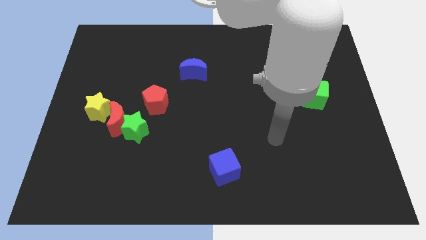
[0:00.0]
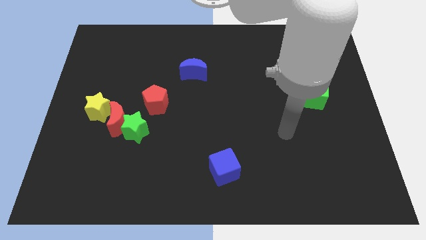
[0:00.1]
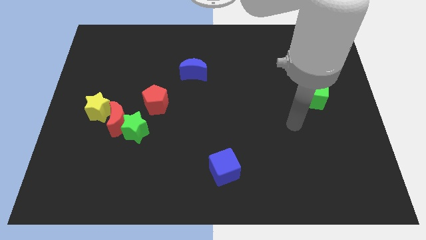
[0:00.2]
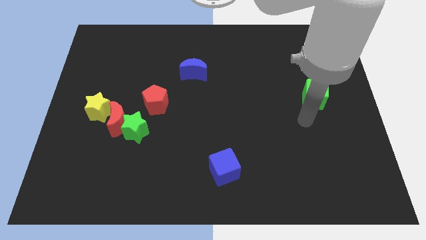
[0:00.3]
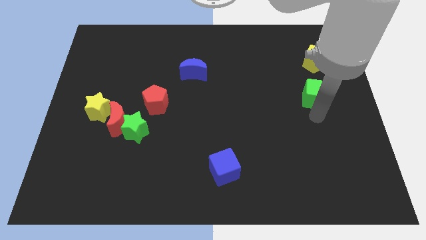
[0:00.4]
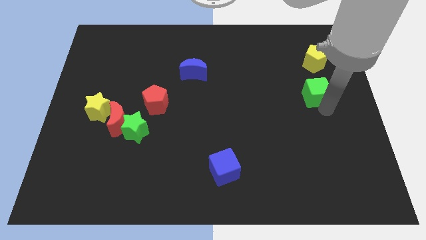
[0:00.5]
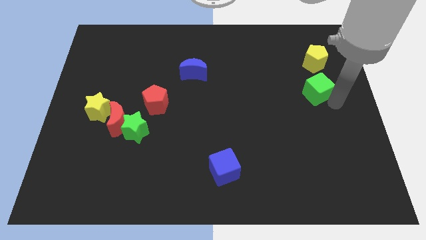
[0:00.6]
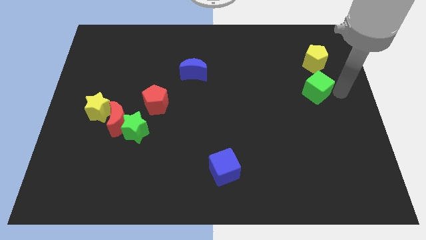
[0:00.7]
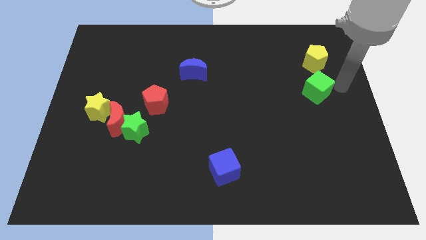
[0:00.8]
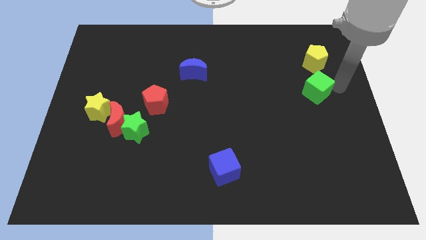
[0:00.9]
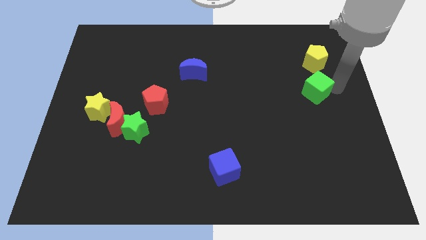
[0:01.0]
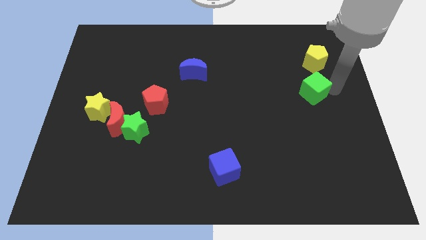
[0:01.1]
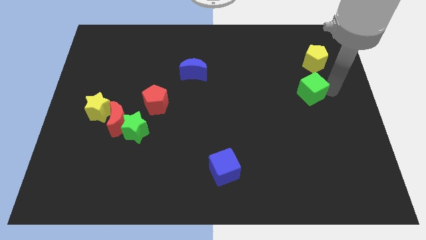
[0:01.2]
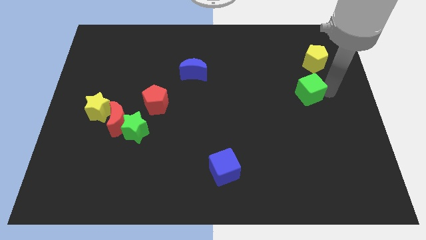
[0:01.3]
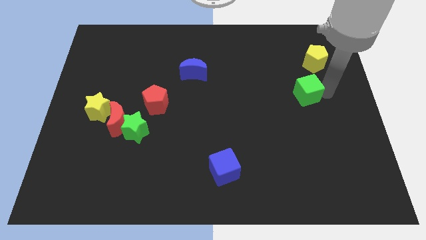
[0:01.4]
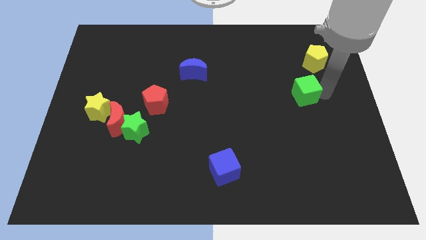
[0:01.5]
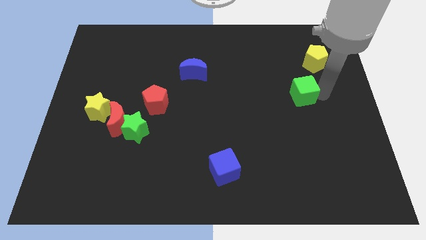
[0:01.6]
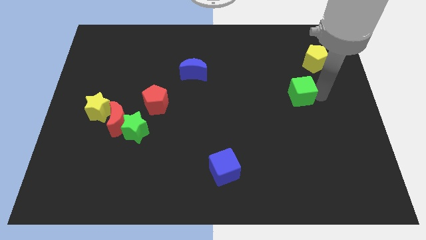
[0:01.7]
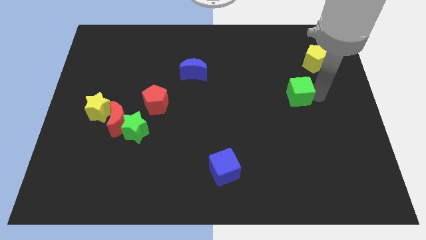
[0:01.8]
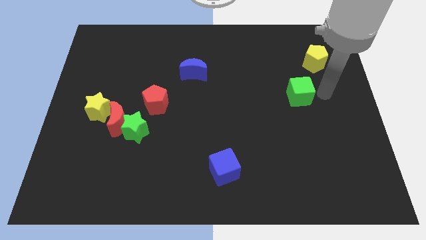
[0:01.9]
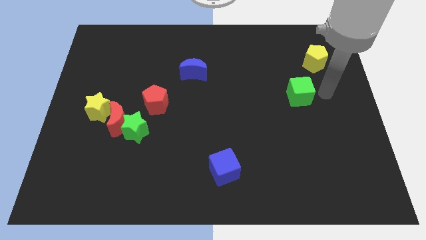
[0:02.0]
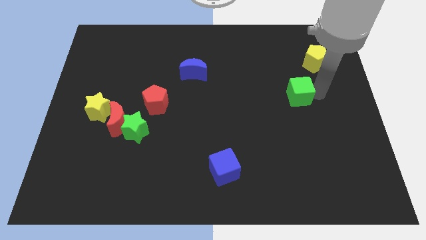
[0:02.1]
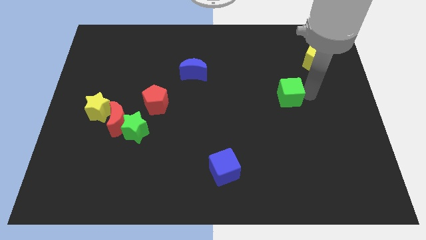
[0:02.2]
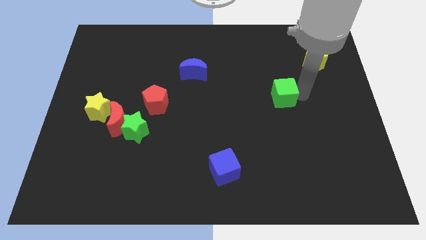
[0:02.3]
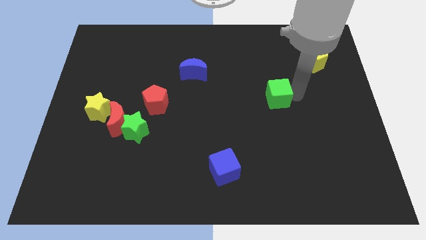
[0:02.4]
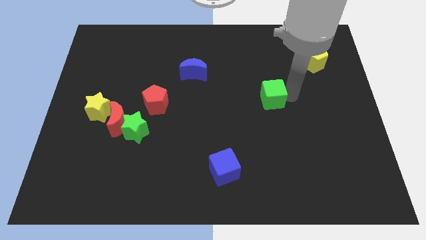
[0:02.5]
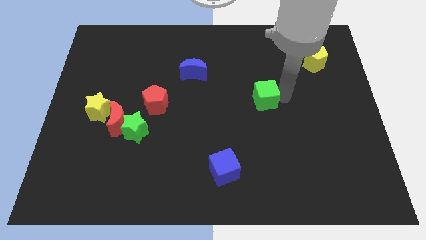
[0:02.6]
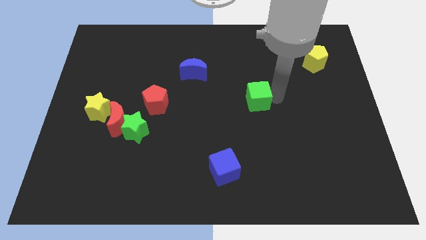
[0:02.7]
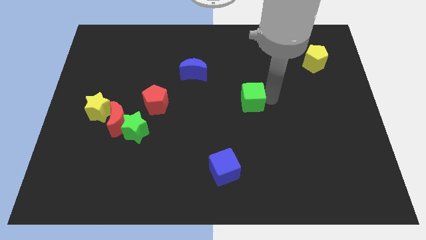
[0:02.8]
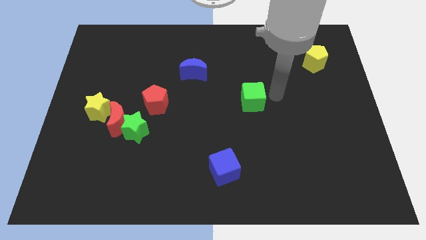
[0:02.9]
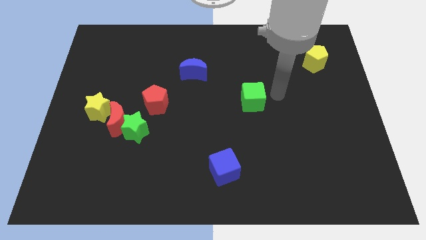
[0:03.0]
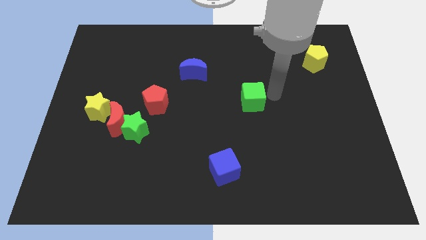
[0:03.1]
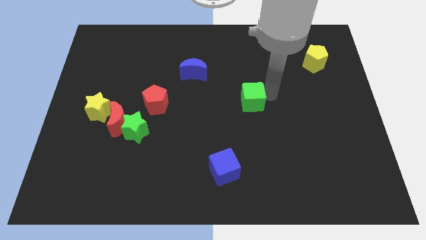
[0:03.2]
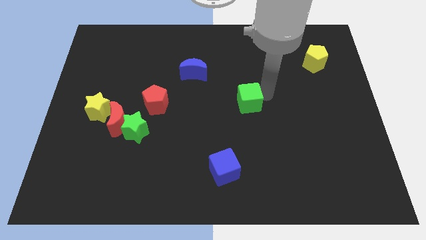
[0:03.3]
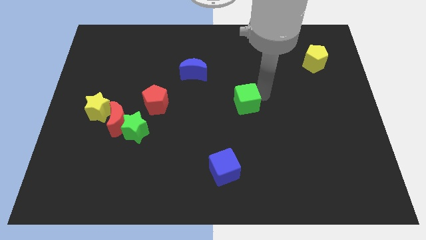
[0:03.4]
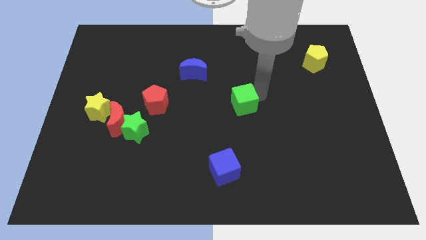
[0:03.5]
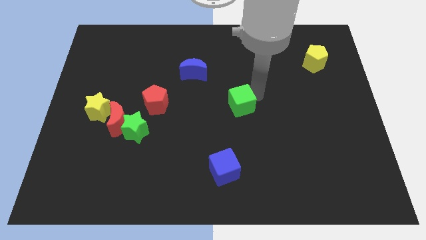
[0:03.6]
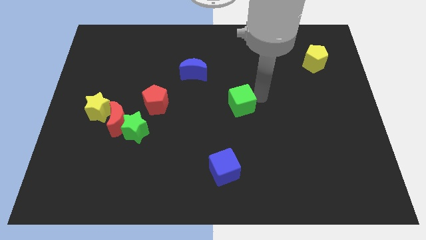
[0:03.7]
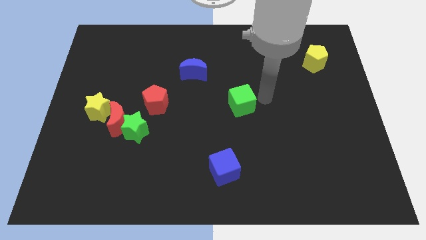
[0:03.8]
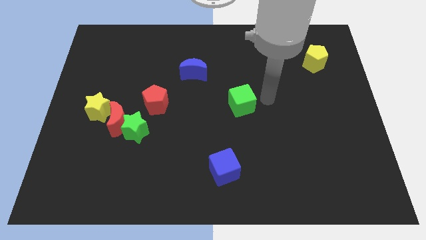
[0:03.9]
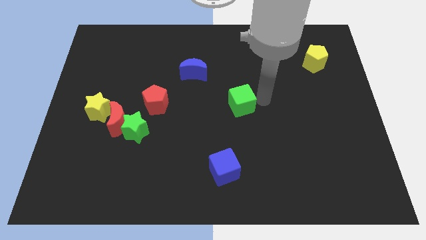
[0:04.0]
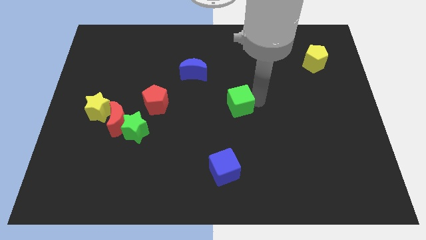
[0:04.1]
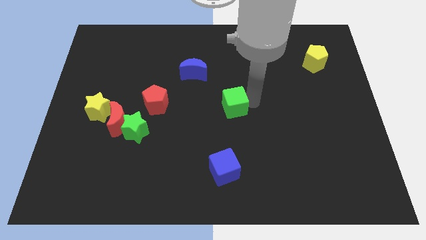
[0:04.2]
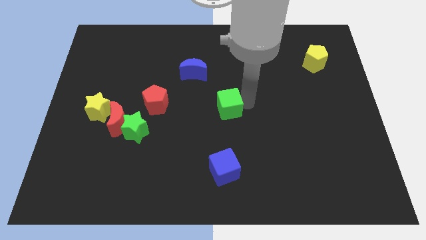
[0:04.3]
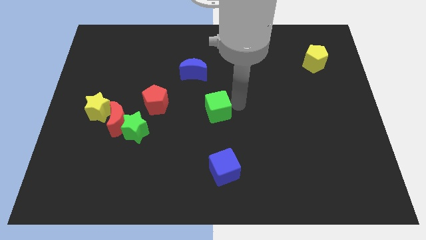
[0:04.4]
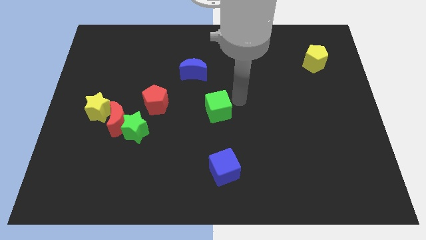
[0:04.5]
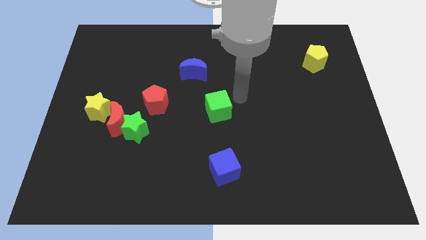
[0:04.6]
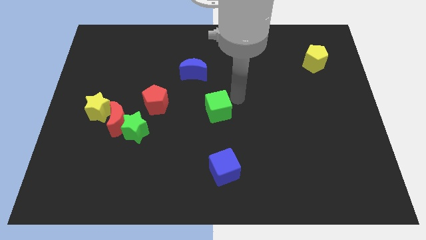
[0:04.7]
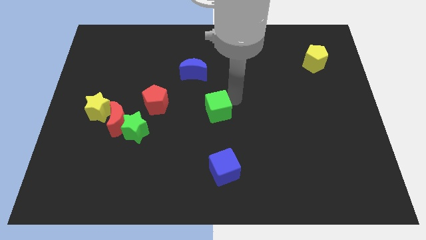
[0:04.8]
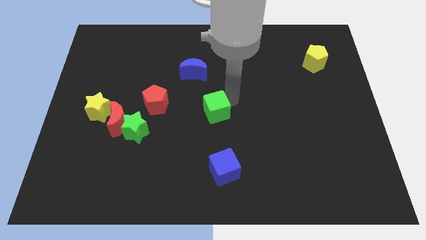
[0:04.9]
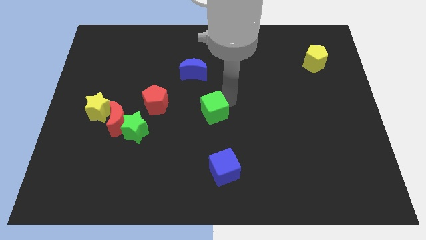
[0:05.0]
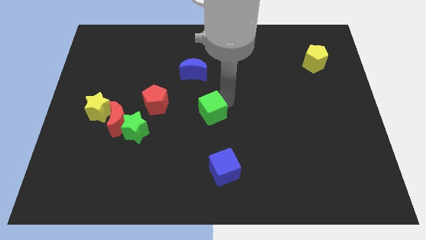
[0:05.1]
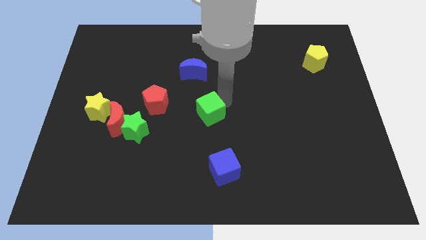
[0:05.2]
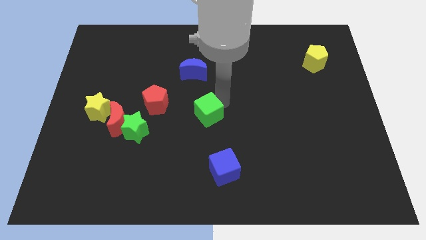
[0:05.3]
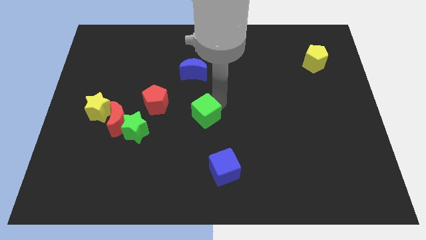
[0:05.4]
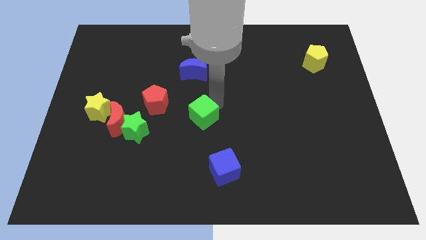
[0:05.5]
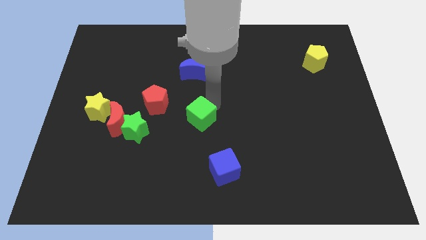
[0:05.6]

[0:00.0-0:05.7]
slide the green cube right of the green star

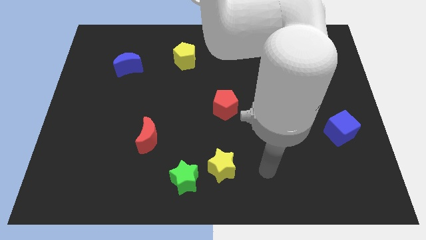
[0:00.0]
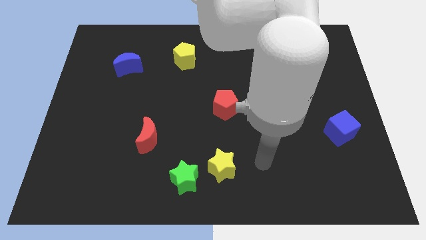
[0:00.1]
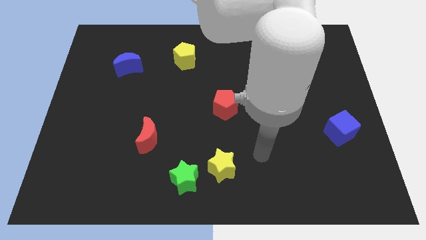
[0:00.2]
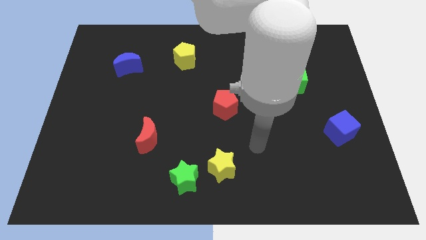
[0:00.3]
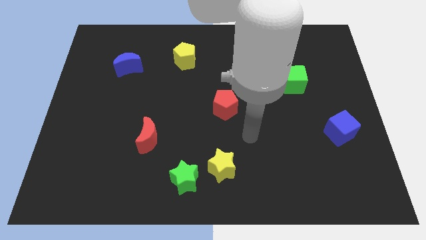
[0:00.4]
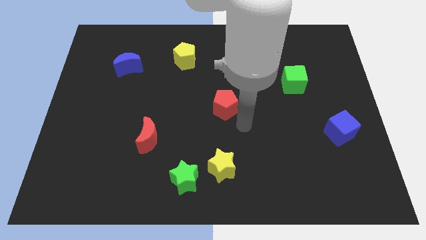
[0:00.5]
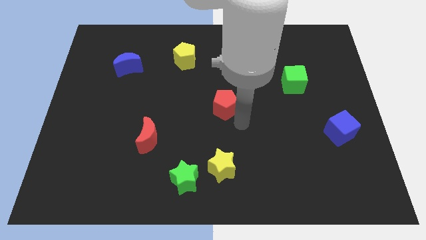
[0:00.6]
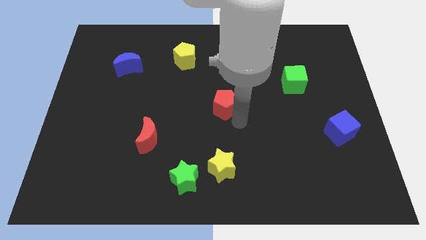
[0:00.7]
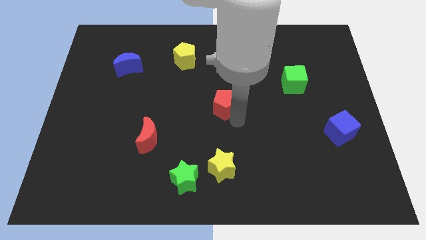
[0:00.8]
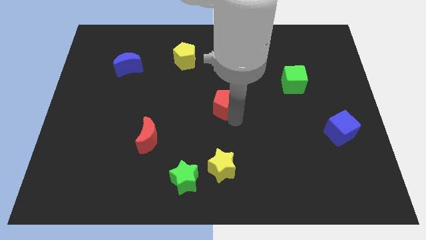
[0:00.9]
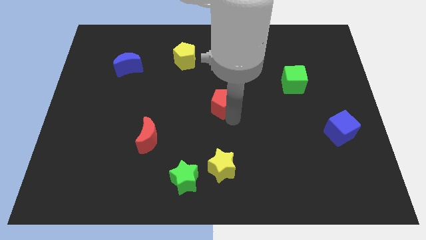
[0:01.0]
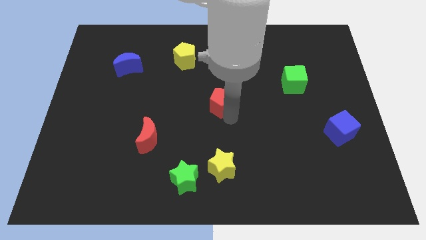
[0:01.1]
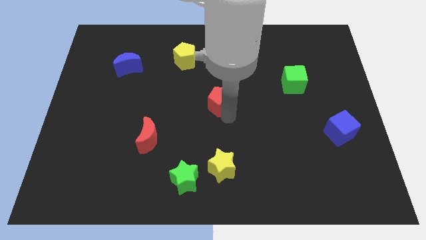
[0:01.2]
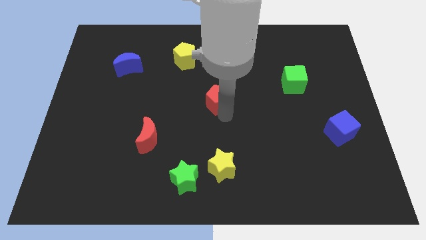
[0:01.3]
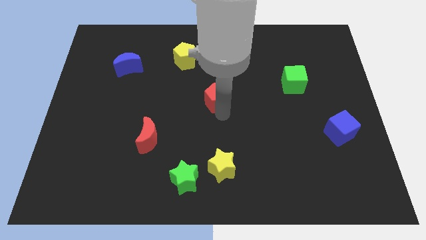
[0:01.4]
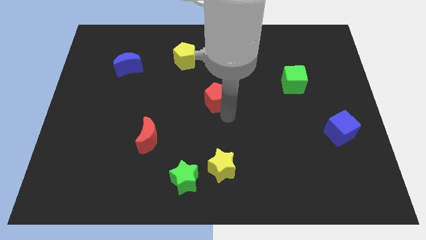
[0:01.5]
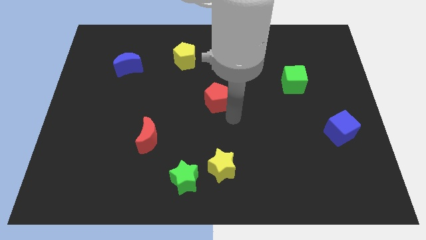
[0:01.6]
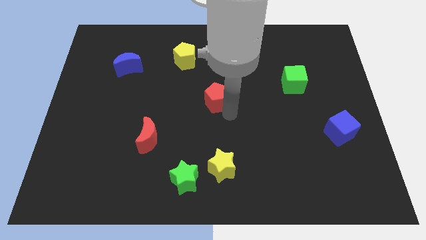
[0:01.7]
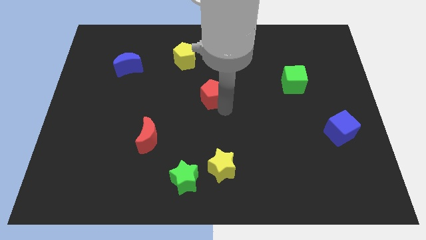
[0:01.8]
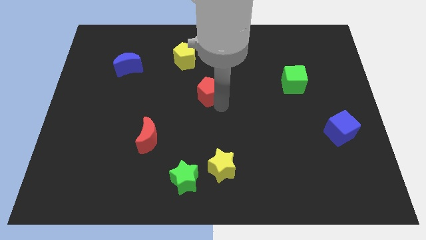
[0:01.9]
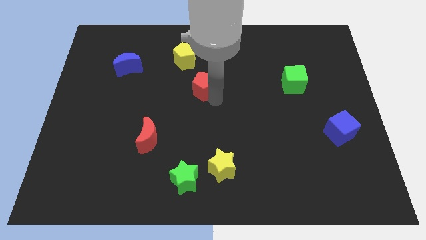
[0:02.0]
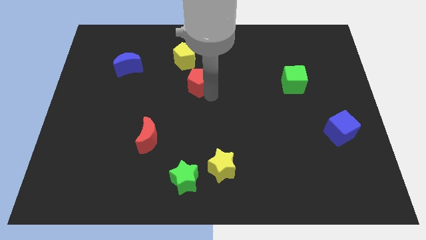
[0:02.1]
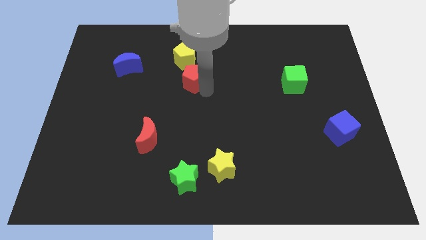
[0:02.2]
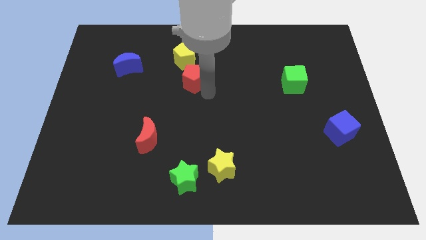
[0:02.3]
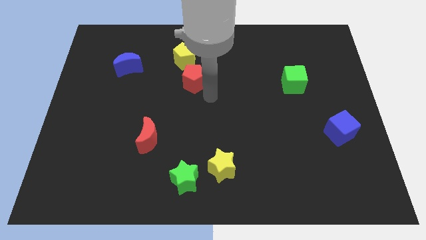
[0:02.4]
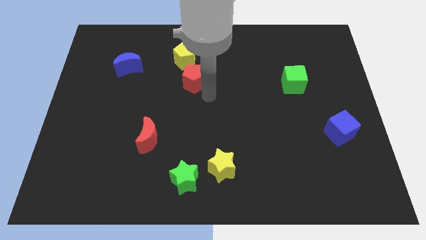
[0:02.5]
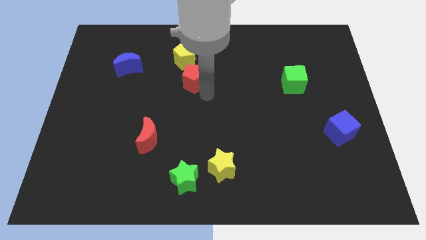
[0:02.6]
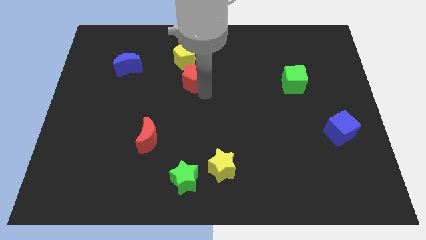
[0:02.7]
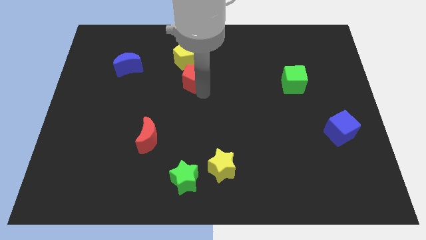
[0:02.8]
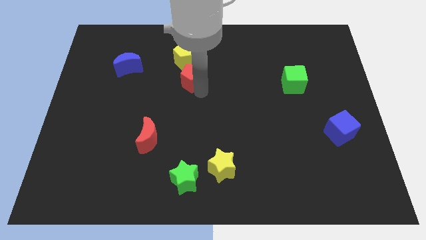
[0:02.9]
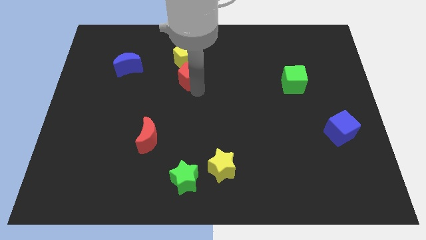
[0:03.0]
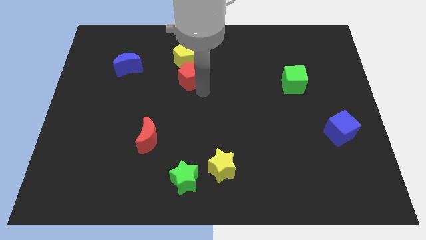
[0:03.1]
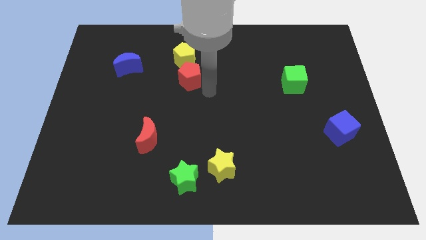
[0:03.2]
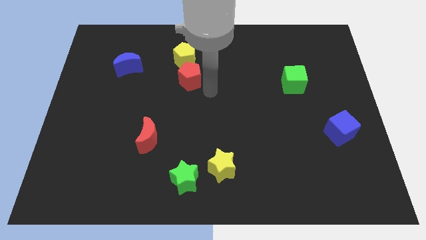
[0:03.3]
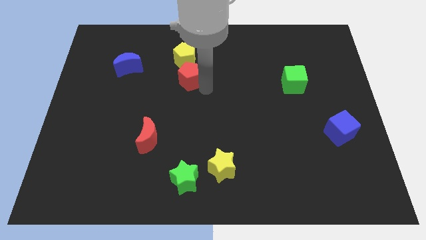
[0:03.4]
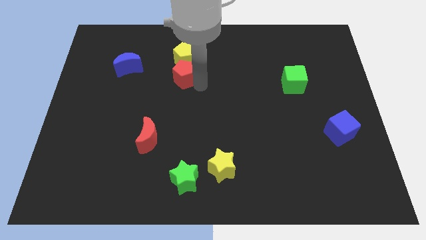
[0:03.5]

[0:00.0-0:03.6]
slide the red pentagon to the right of the blue moon
